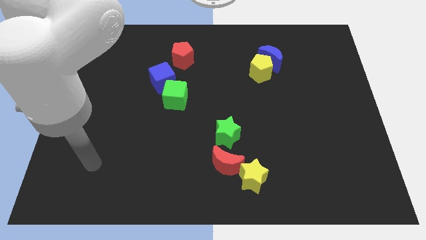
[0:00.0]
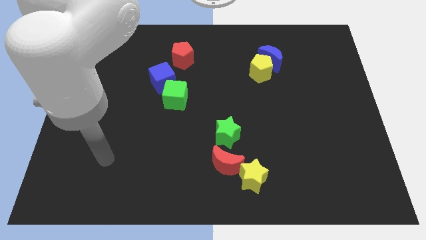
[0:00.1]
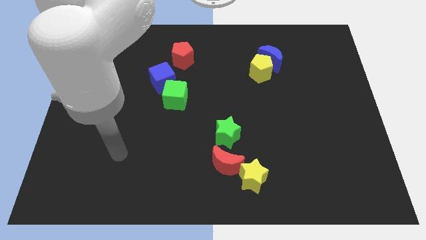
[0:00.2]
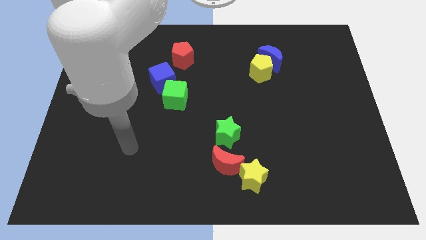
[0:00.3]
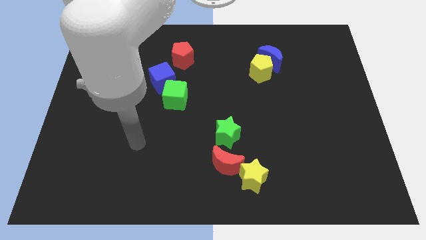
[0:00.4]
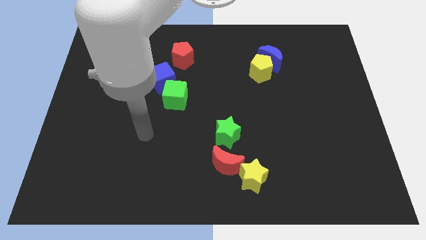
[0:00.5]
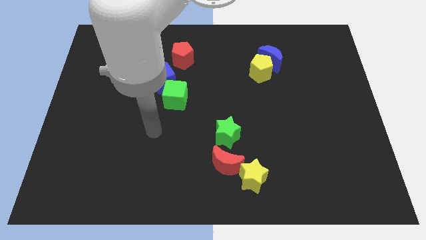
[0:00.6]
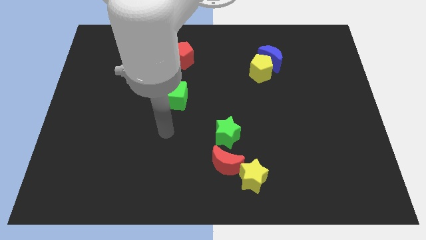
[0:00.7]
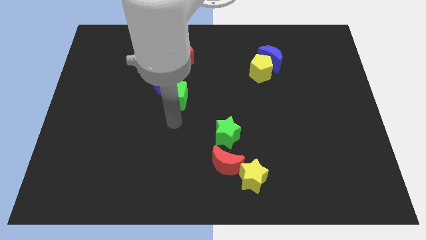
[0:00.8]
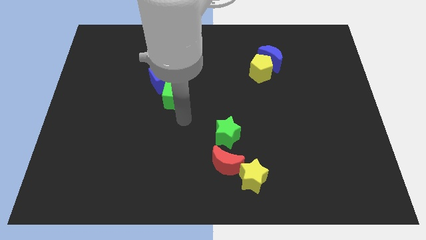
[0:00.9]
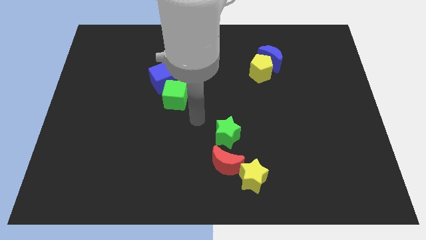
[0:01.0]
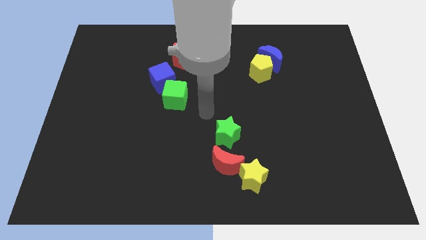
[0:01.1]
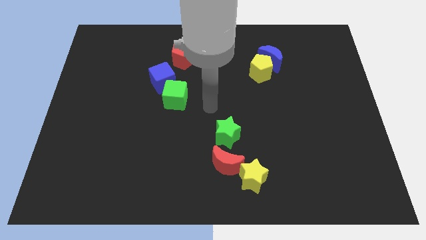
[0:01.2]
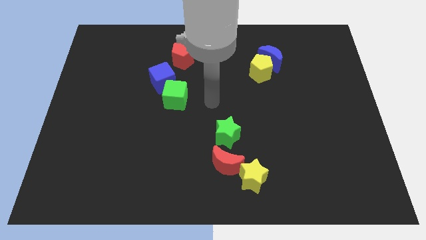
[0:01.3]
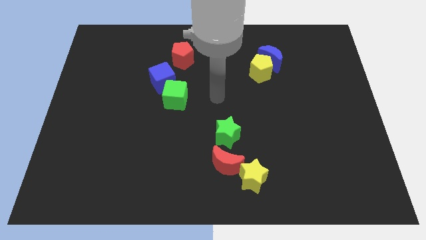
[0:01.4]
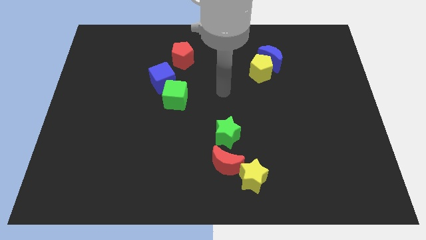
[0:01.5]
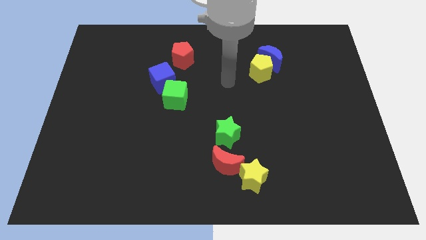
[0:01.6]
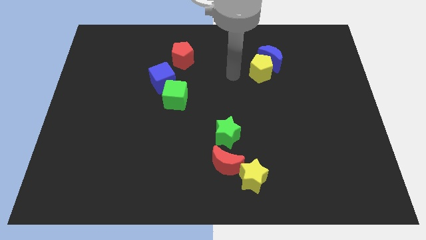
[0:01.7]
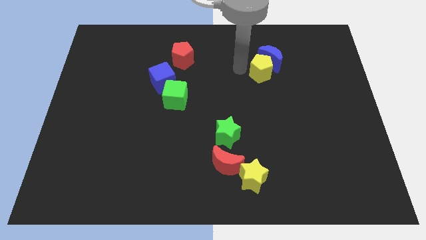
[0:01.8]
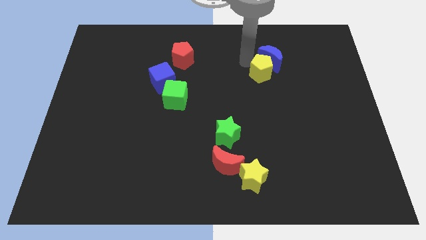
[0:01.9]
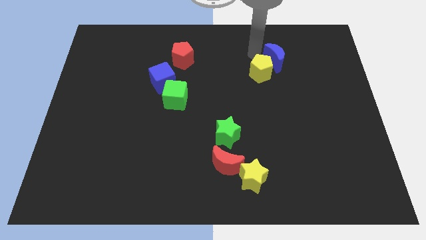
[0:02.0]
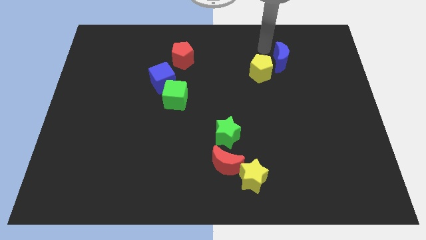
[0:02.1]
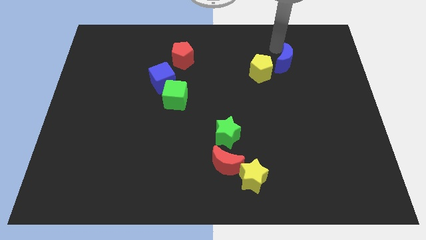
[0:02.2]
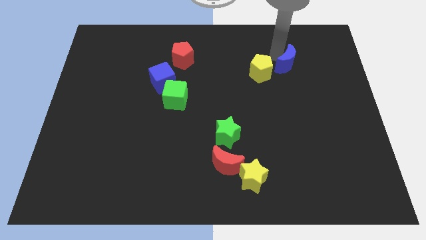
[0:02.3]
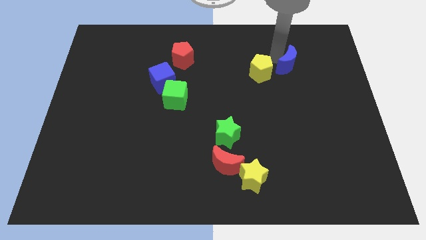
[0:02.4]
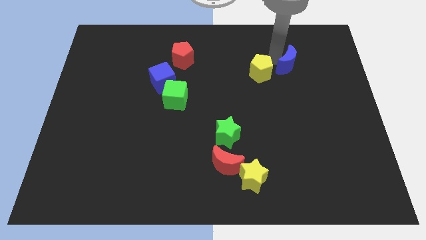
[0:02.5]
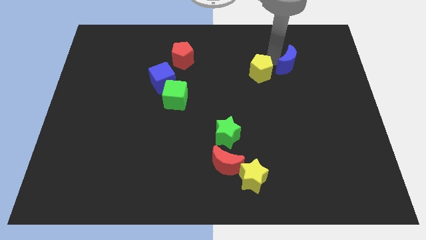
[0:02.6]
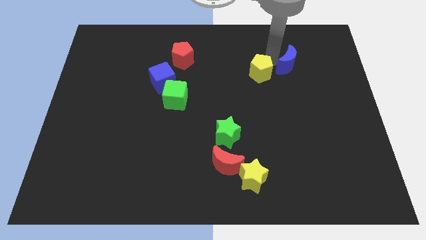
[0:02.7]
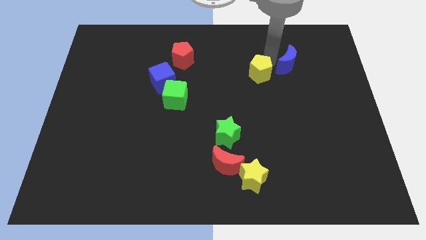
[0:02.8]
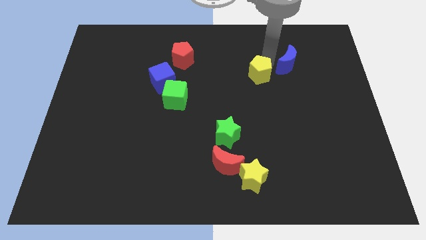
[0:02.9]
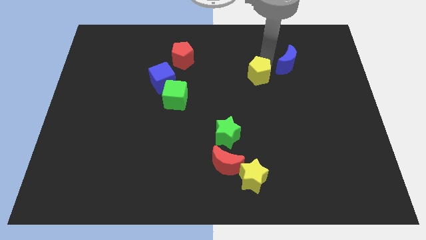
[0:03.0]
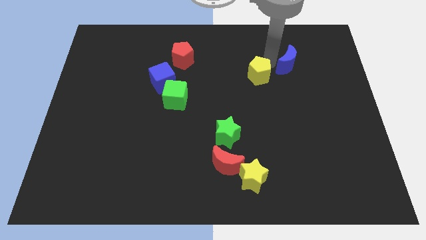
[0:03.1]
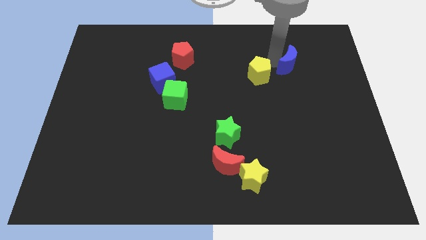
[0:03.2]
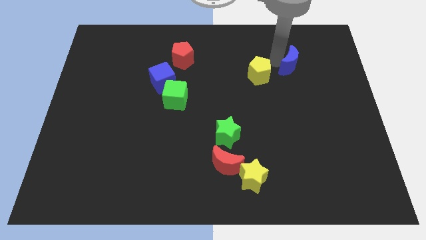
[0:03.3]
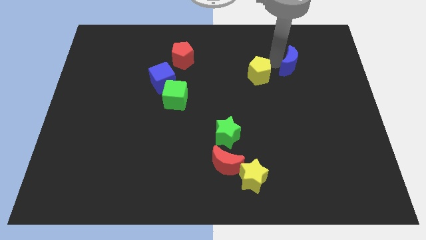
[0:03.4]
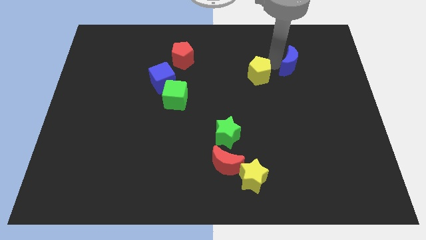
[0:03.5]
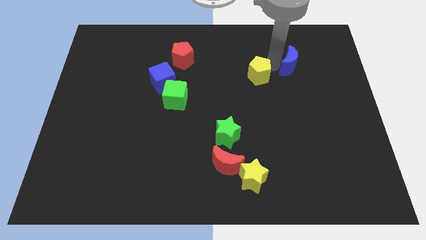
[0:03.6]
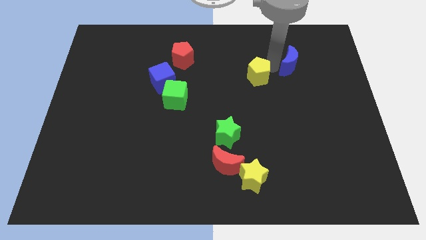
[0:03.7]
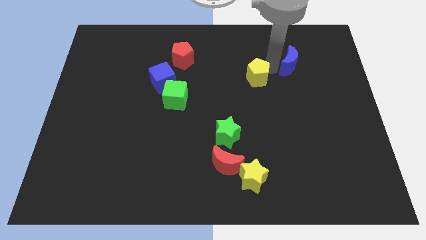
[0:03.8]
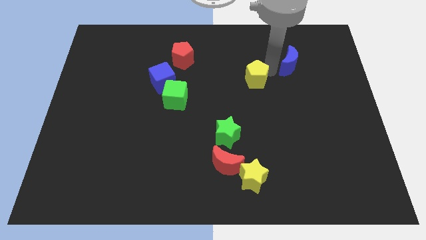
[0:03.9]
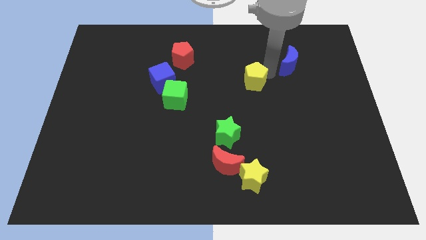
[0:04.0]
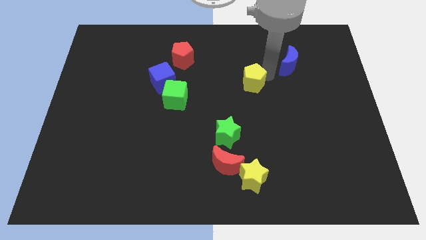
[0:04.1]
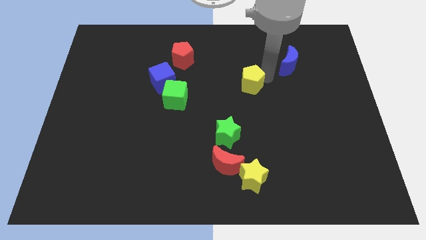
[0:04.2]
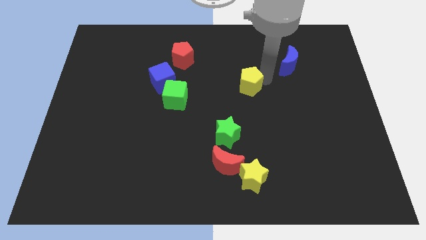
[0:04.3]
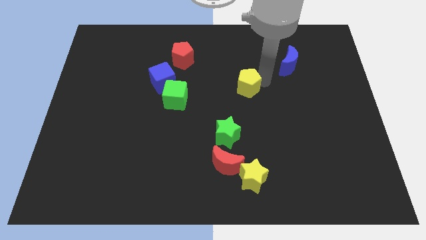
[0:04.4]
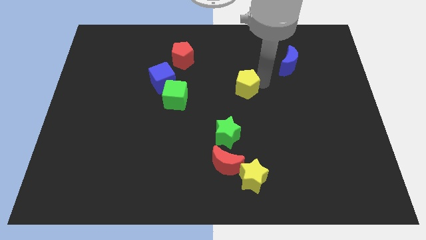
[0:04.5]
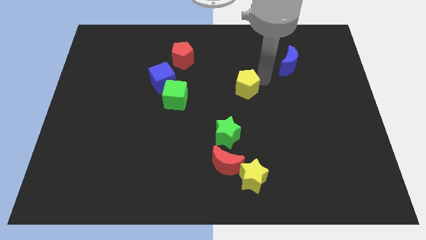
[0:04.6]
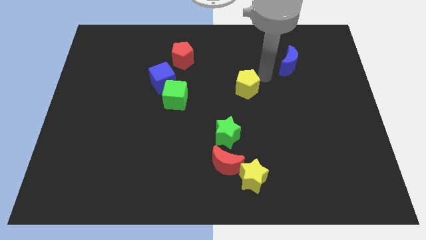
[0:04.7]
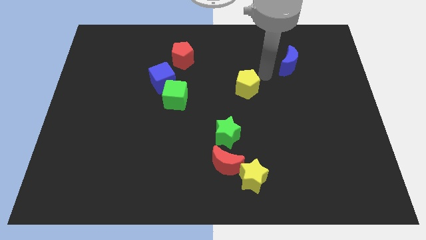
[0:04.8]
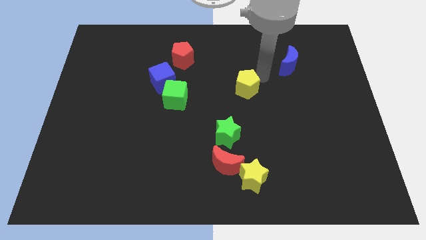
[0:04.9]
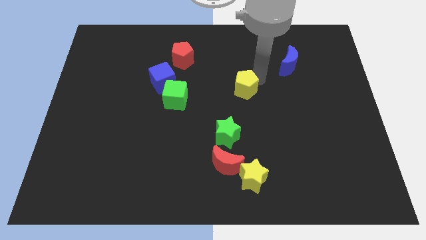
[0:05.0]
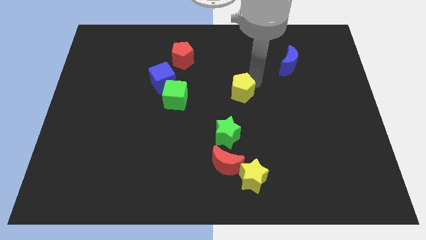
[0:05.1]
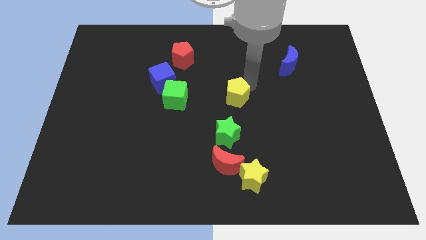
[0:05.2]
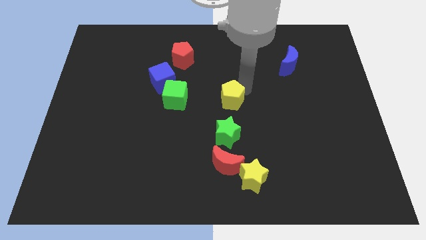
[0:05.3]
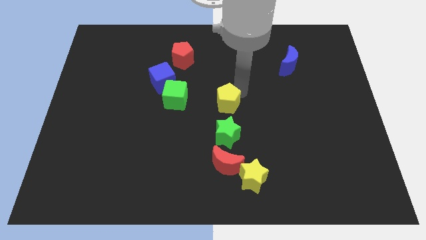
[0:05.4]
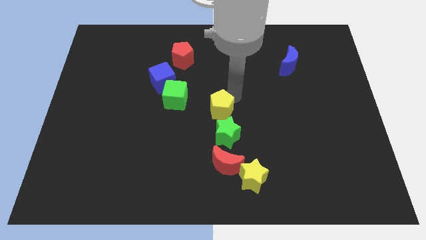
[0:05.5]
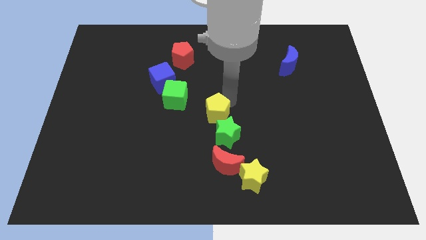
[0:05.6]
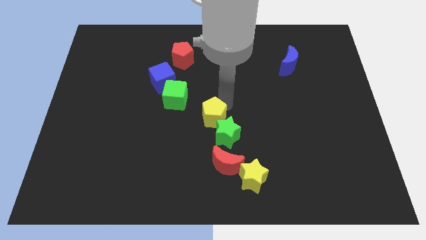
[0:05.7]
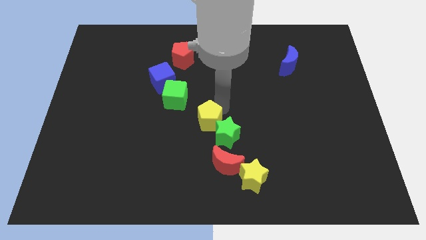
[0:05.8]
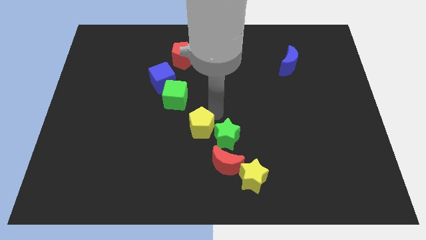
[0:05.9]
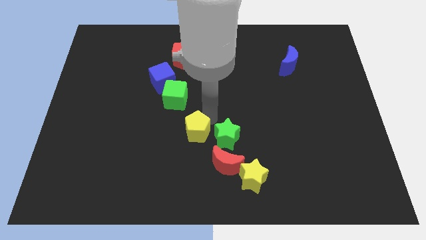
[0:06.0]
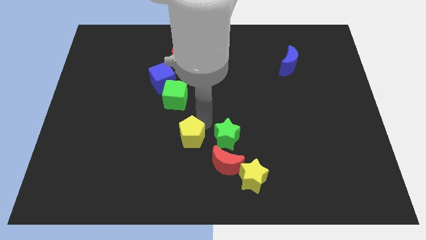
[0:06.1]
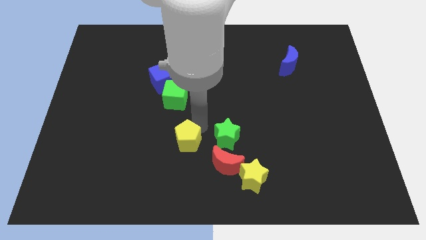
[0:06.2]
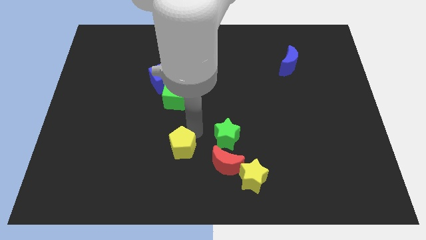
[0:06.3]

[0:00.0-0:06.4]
slide the yellow pentagon left of the red moon
